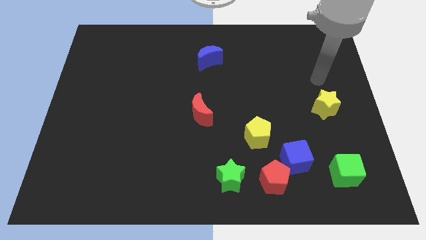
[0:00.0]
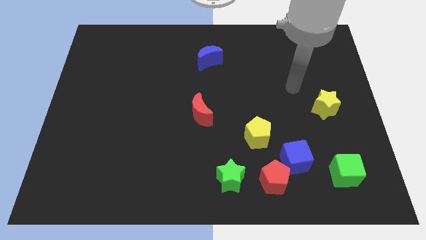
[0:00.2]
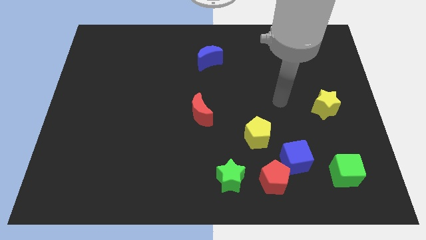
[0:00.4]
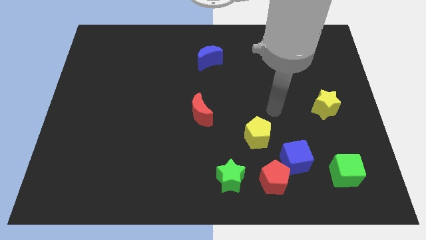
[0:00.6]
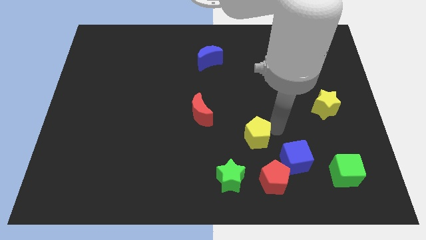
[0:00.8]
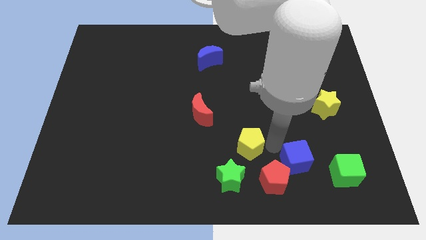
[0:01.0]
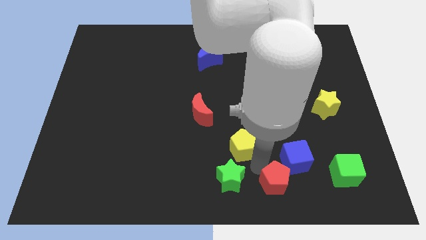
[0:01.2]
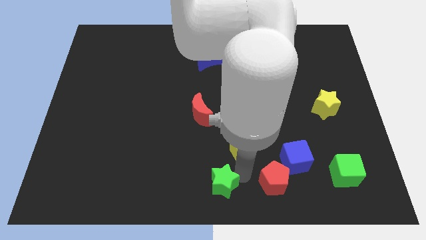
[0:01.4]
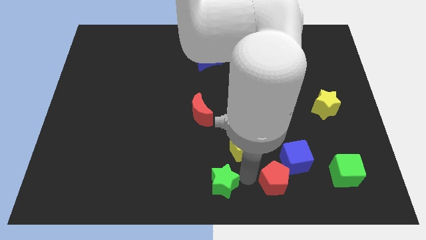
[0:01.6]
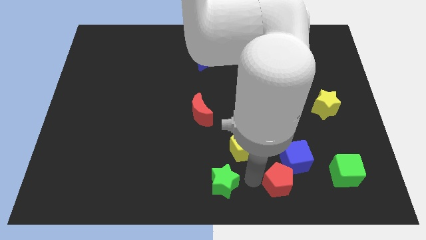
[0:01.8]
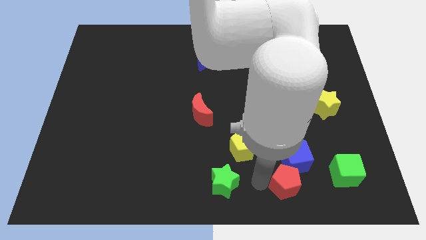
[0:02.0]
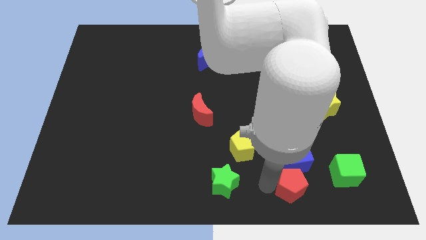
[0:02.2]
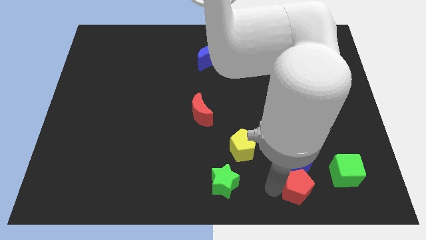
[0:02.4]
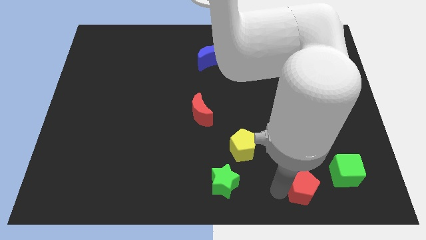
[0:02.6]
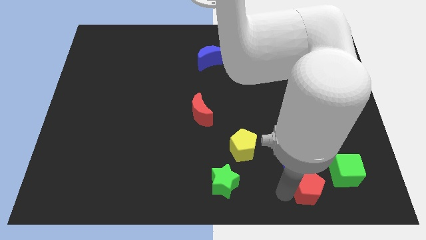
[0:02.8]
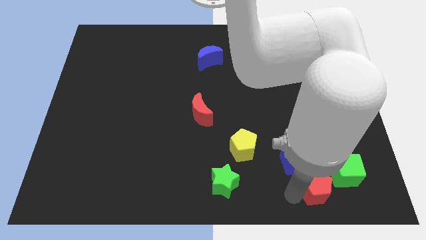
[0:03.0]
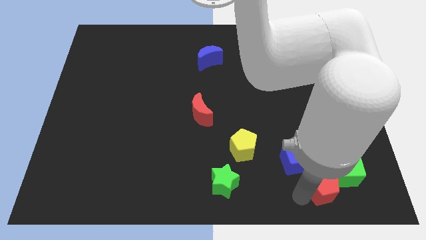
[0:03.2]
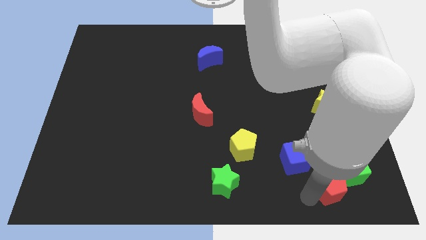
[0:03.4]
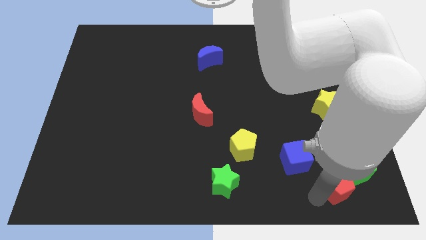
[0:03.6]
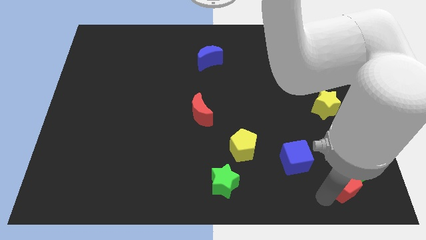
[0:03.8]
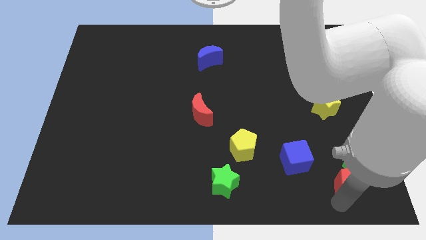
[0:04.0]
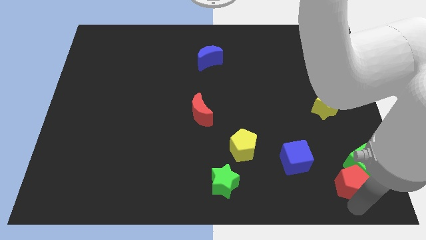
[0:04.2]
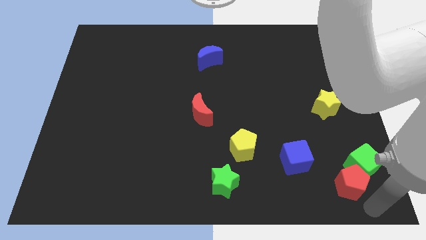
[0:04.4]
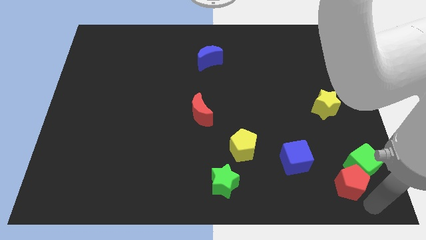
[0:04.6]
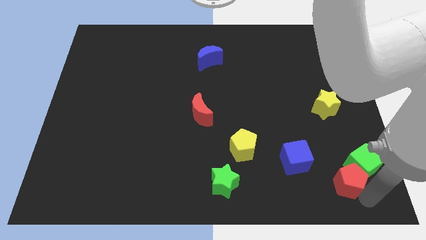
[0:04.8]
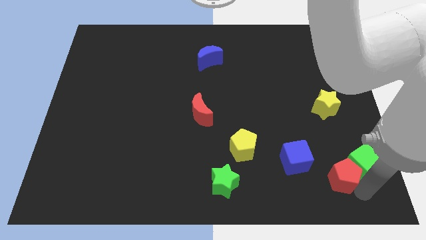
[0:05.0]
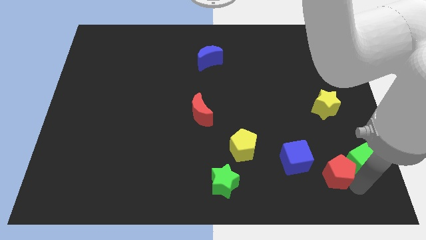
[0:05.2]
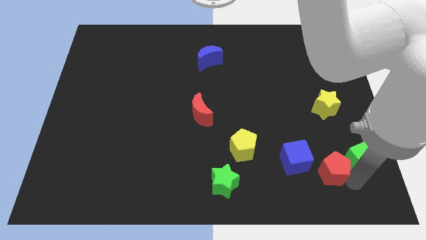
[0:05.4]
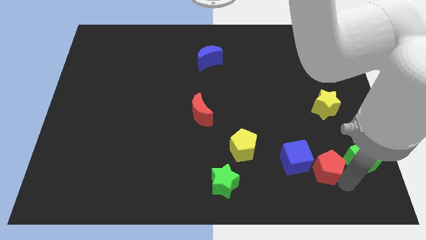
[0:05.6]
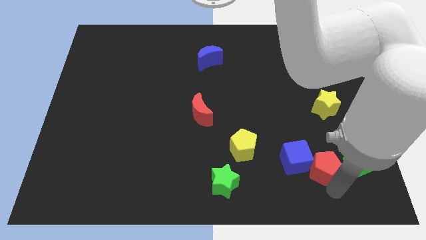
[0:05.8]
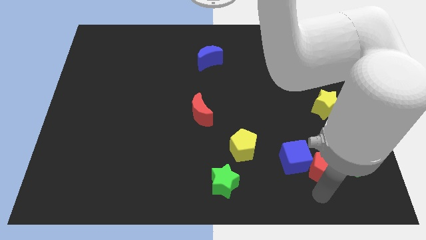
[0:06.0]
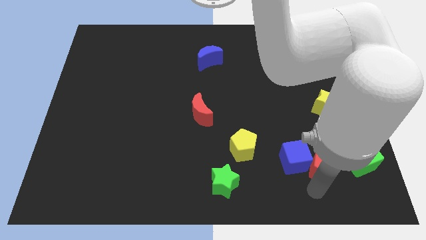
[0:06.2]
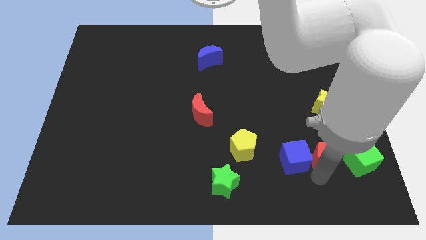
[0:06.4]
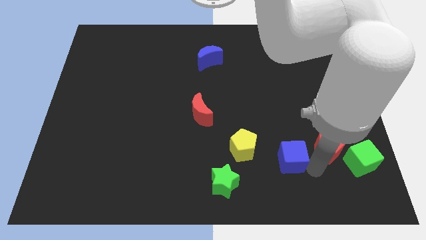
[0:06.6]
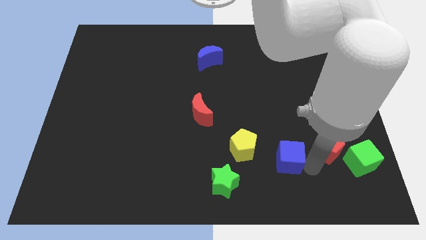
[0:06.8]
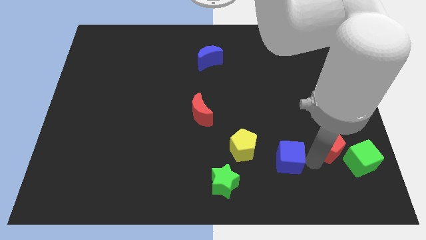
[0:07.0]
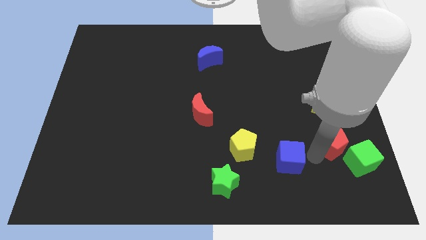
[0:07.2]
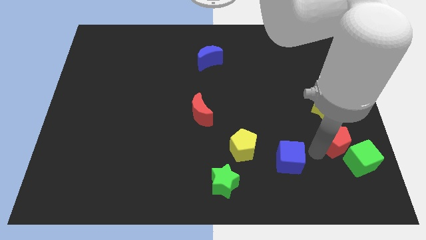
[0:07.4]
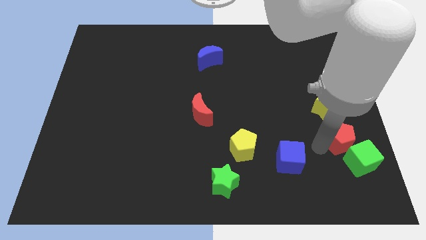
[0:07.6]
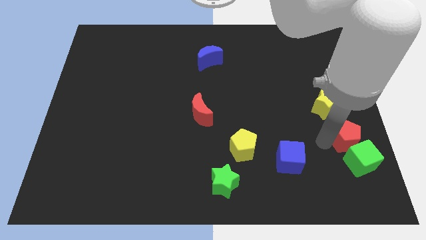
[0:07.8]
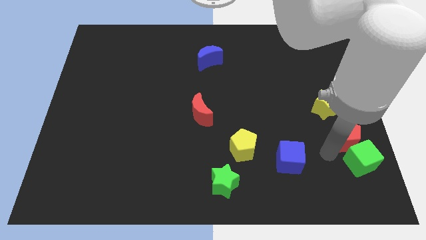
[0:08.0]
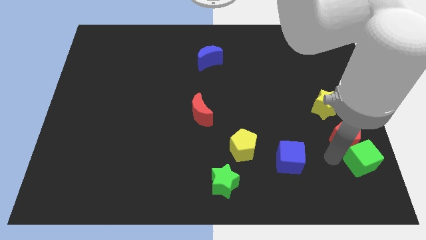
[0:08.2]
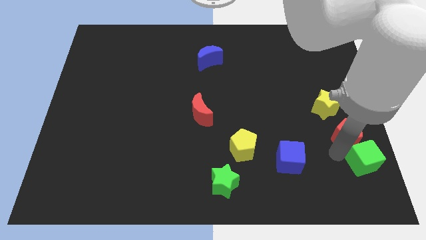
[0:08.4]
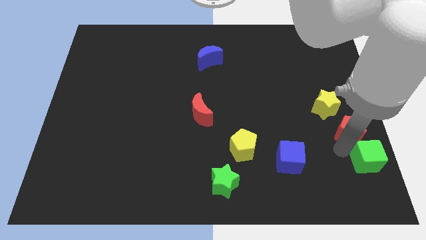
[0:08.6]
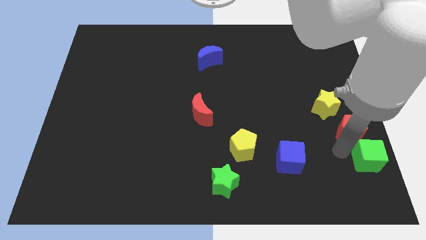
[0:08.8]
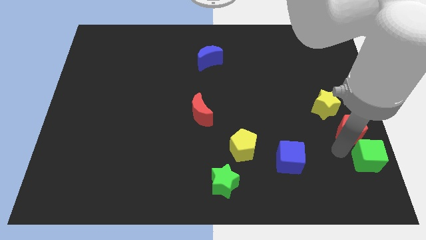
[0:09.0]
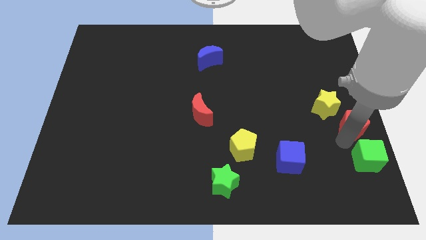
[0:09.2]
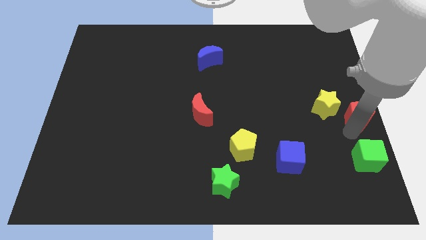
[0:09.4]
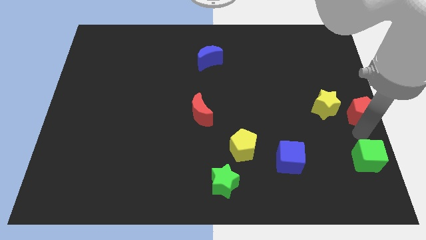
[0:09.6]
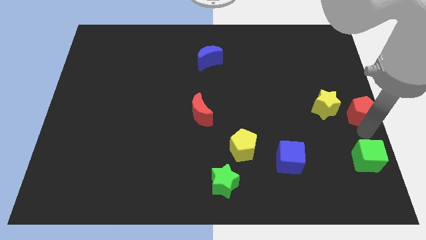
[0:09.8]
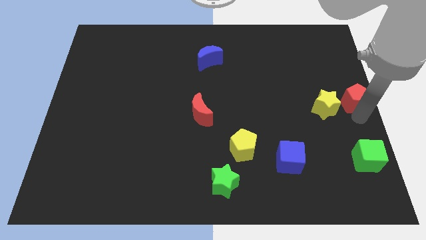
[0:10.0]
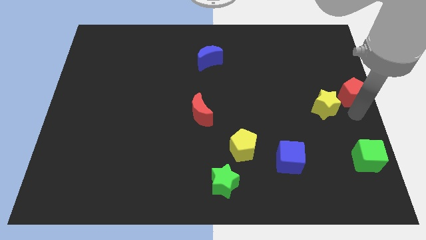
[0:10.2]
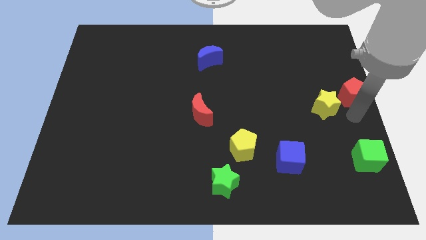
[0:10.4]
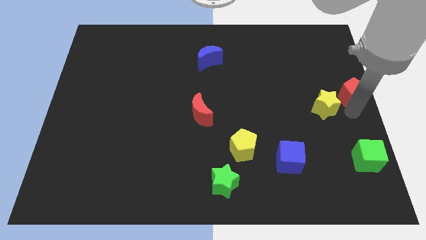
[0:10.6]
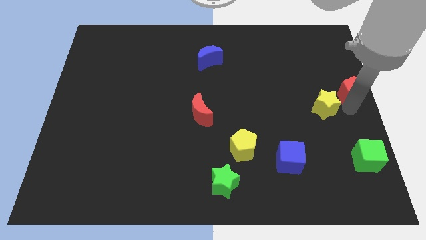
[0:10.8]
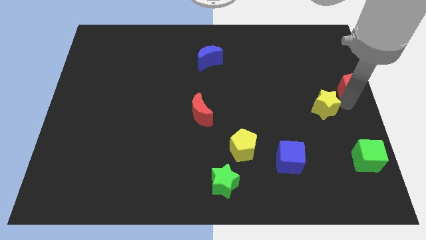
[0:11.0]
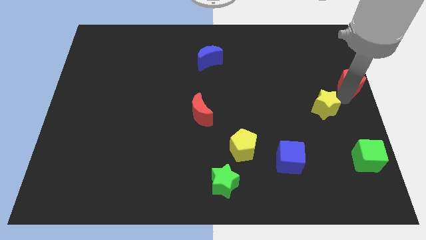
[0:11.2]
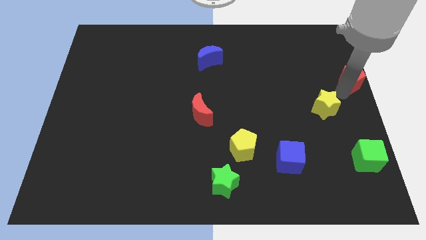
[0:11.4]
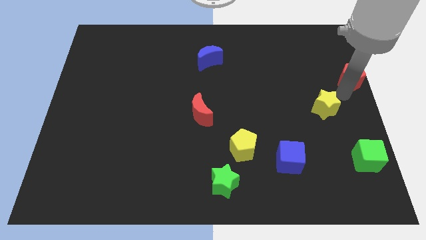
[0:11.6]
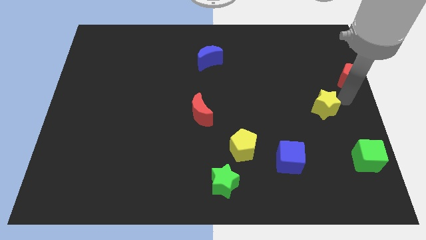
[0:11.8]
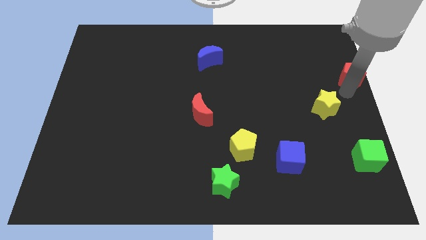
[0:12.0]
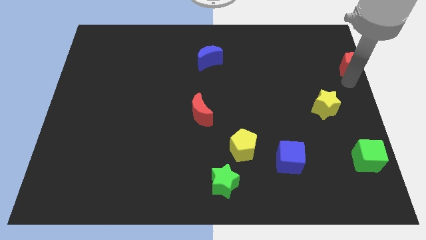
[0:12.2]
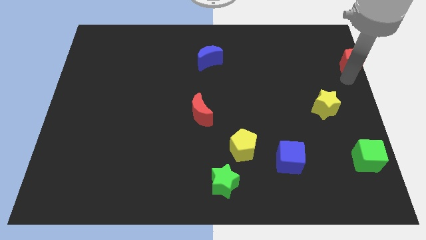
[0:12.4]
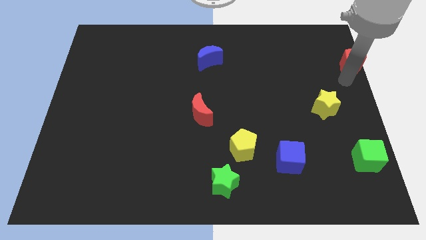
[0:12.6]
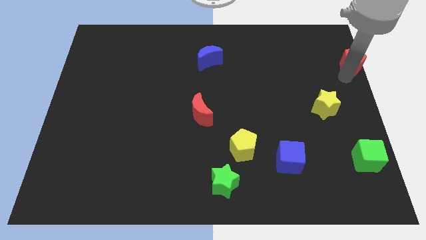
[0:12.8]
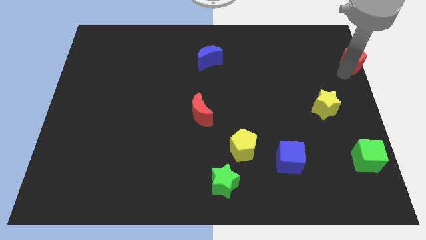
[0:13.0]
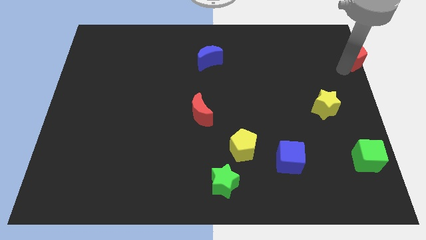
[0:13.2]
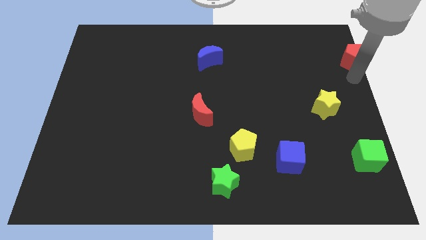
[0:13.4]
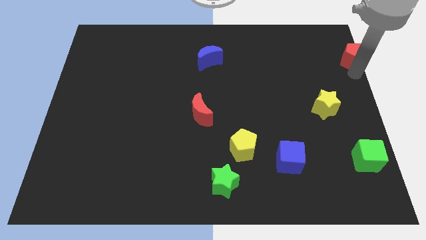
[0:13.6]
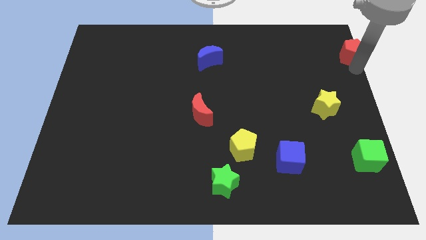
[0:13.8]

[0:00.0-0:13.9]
move the red pentagon to the upper right corner

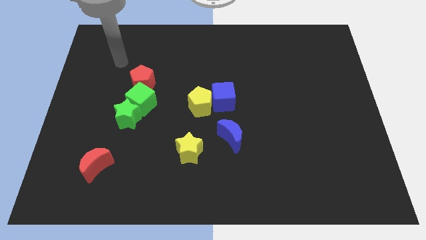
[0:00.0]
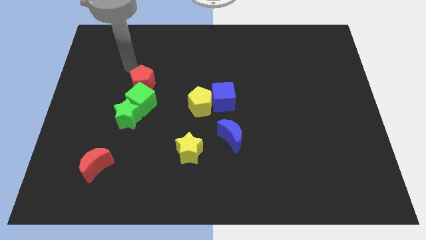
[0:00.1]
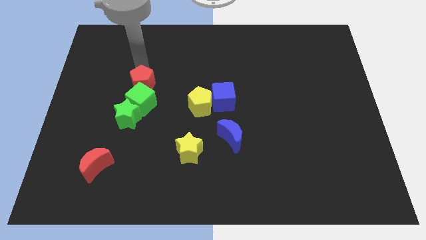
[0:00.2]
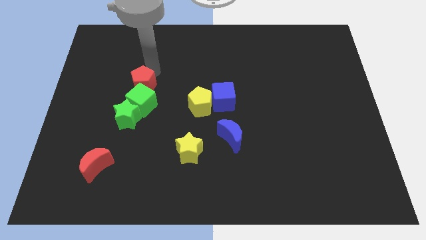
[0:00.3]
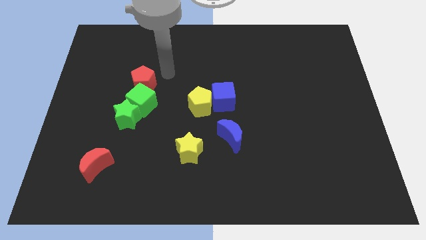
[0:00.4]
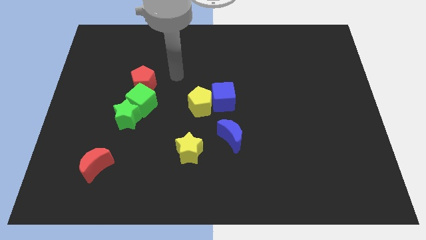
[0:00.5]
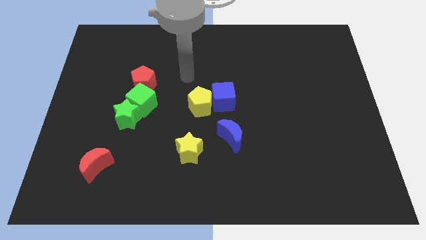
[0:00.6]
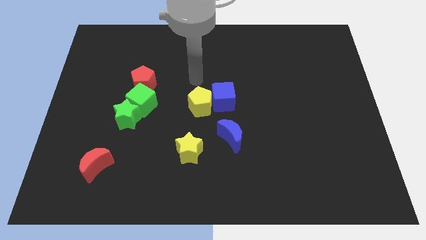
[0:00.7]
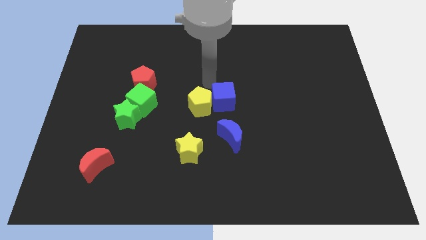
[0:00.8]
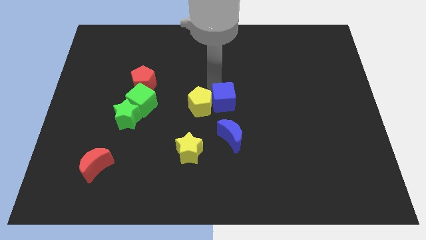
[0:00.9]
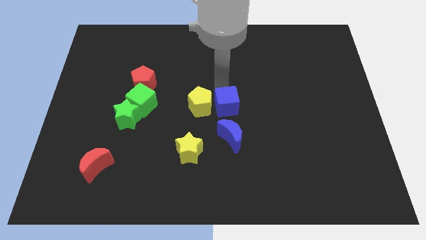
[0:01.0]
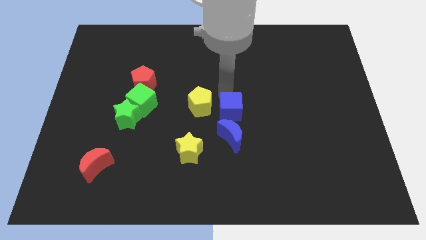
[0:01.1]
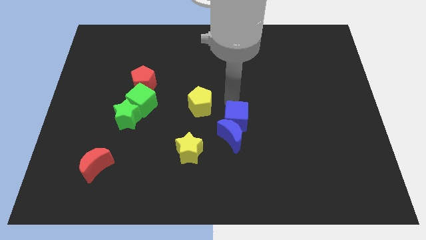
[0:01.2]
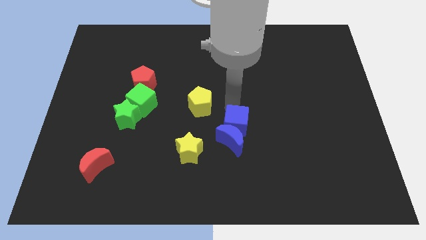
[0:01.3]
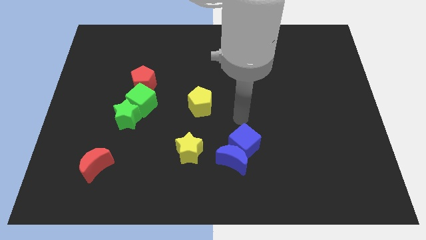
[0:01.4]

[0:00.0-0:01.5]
push the blue moon to the bottom side
